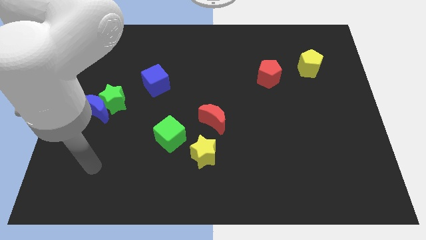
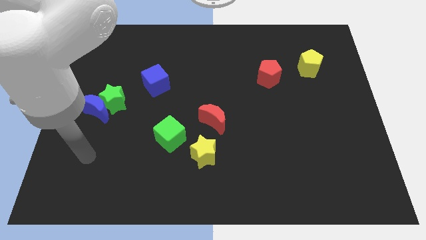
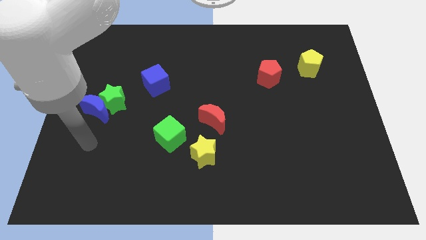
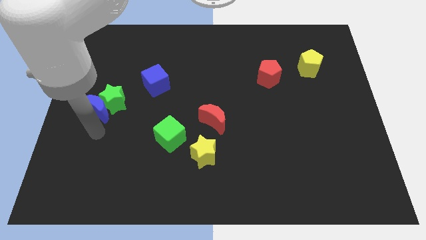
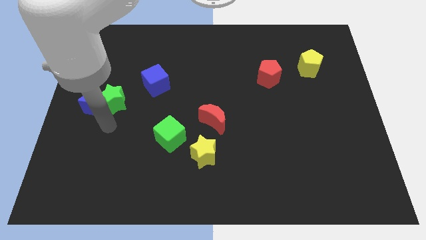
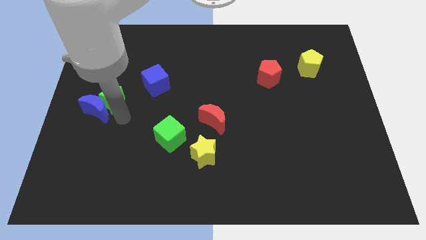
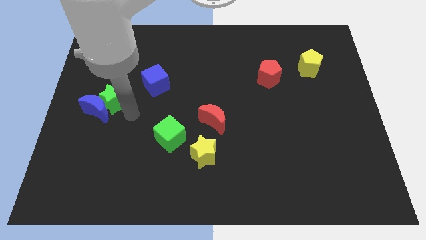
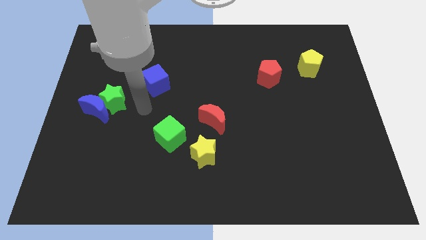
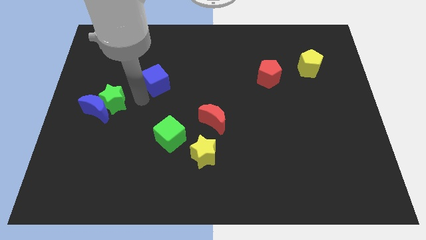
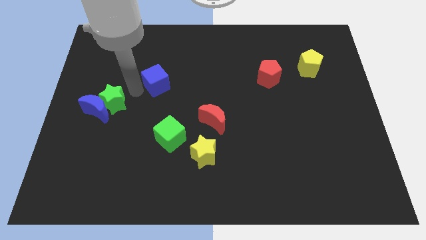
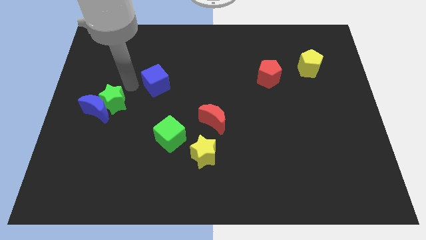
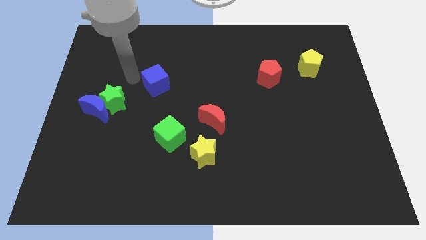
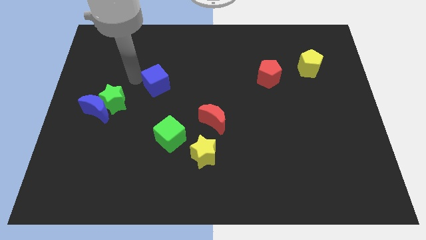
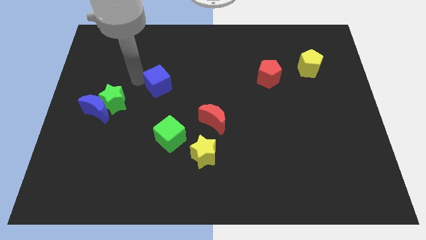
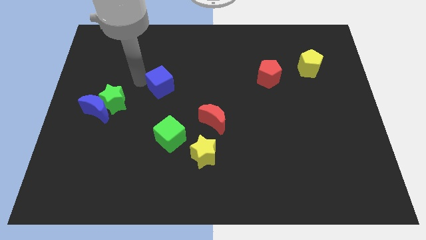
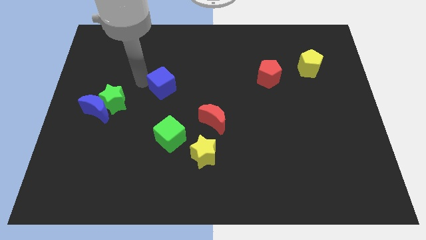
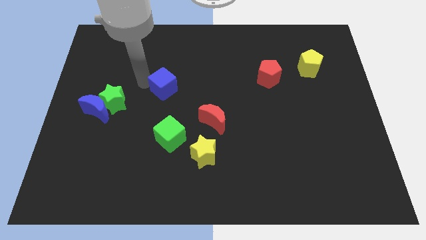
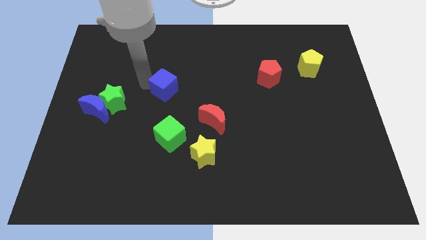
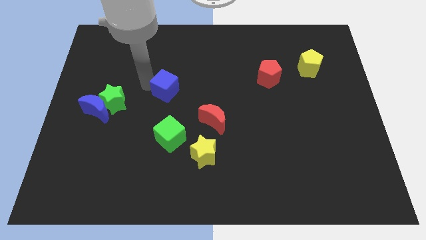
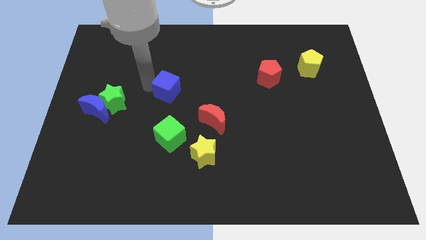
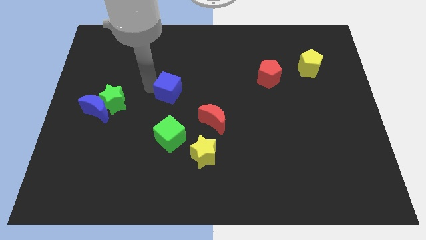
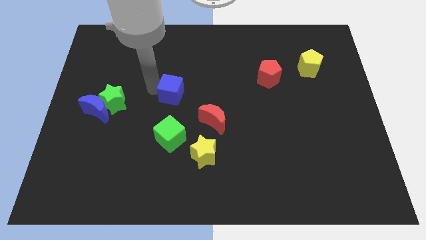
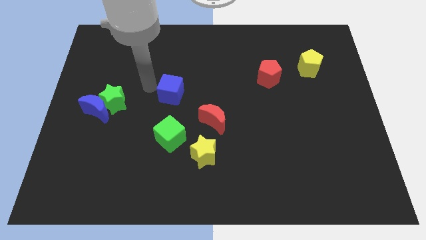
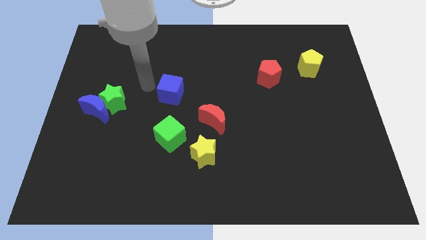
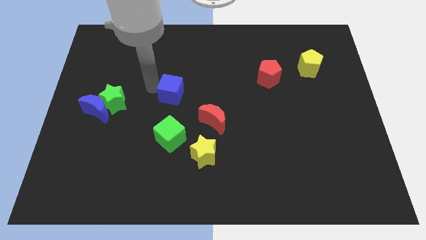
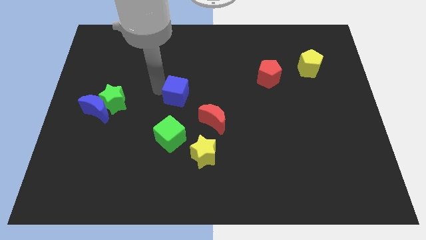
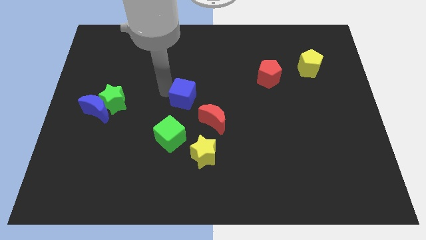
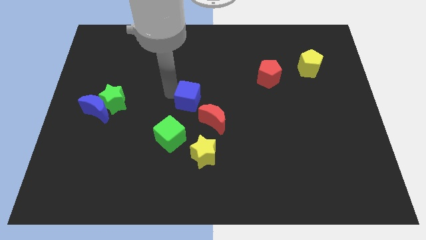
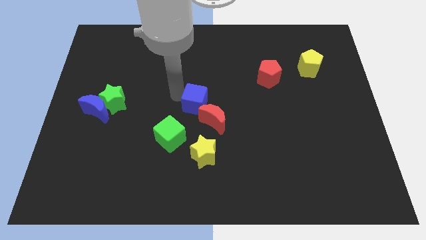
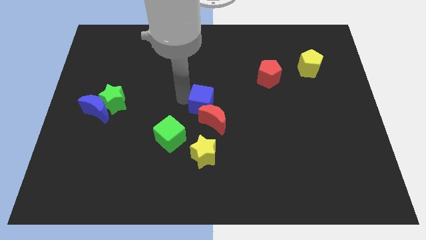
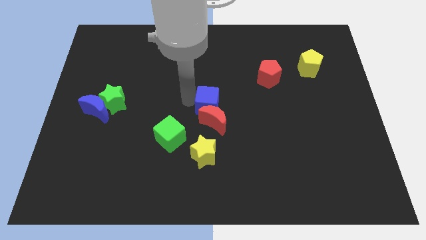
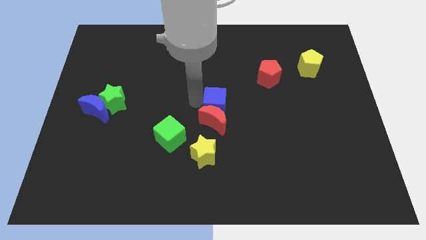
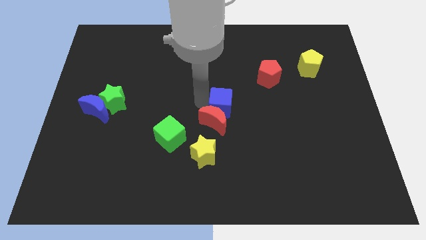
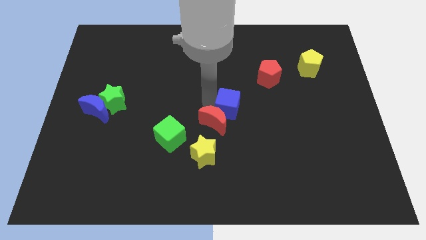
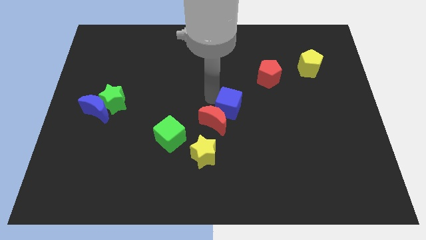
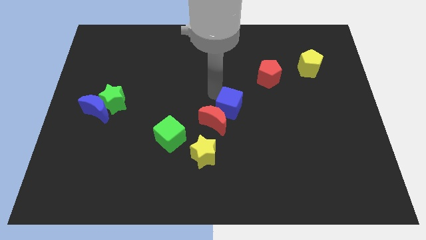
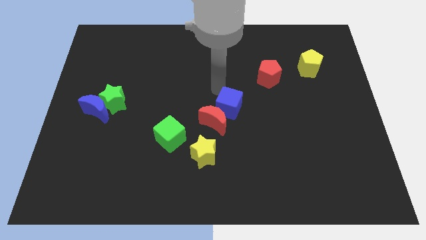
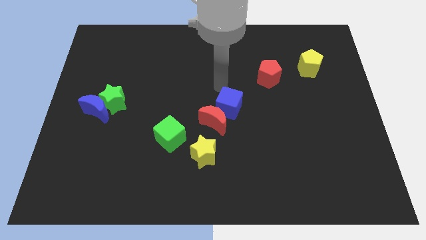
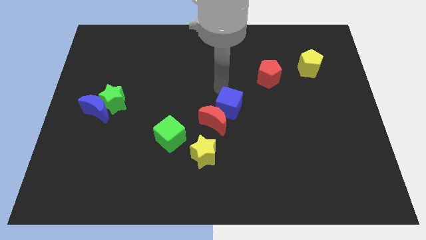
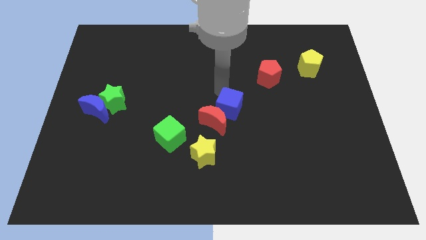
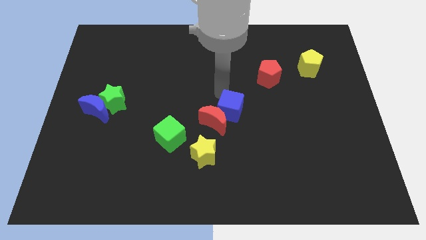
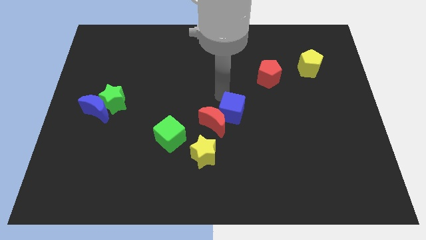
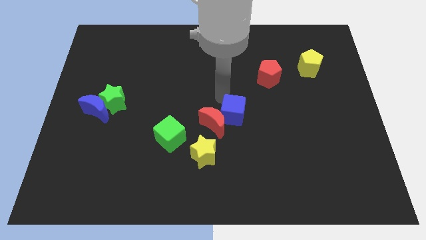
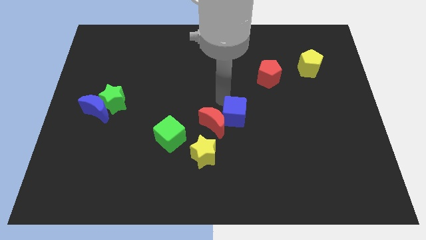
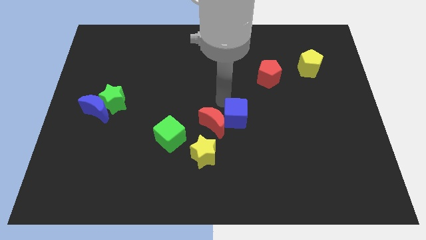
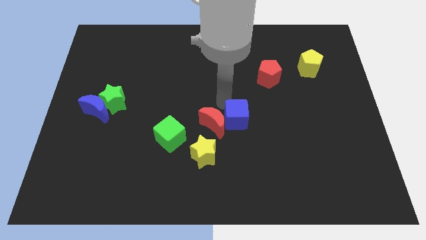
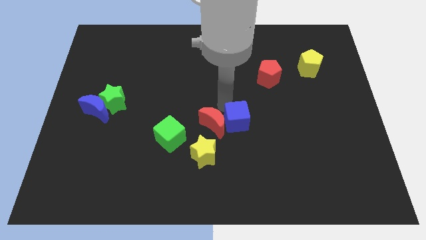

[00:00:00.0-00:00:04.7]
push the blue cube diagonally downwards and to the right

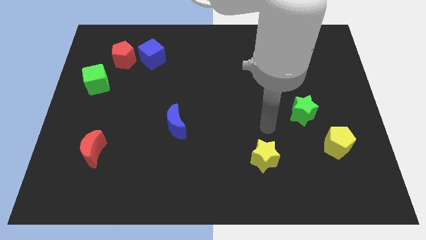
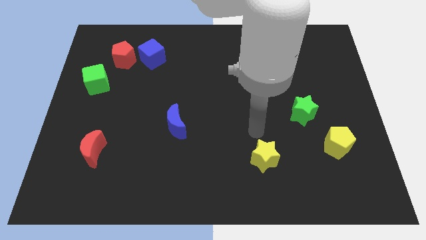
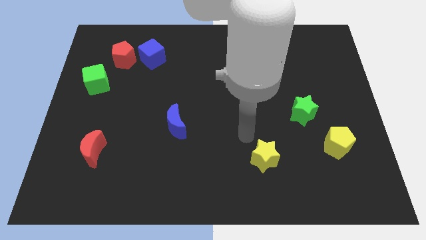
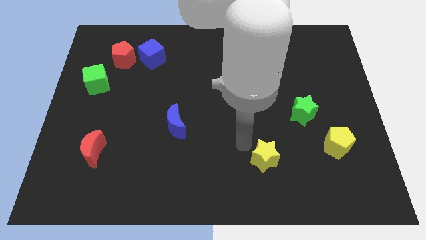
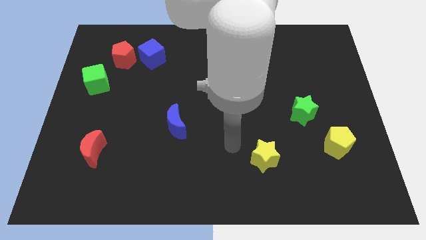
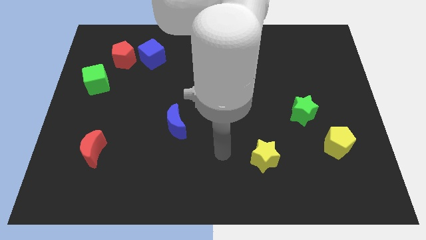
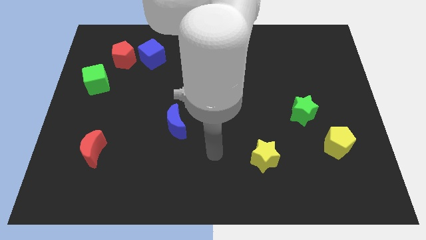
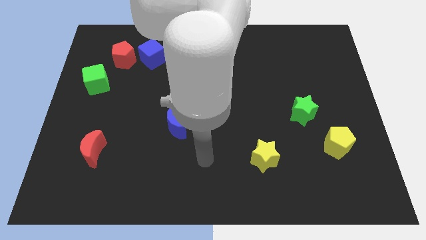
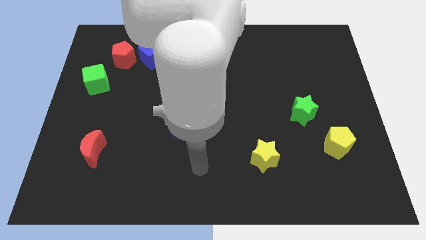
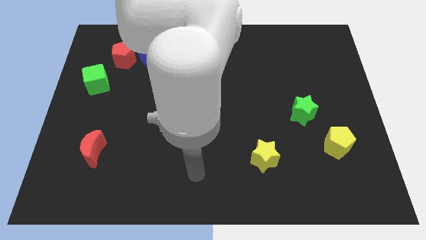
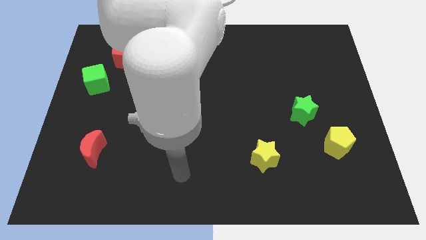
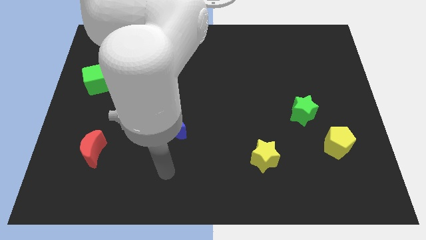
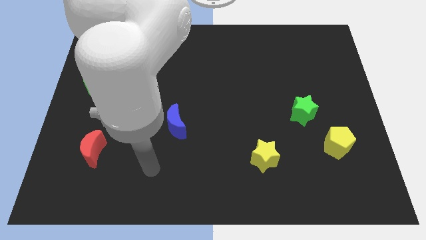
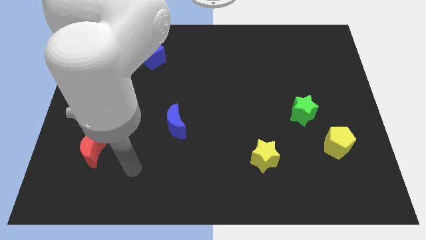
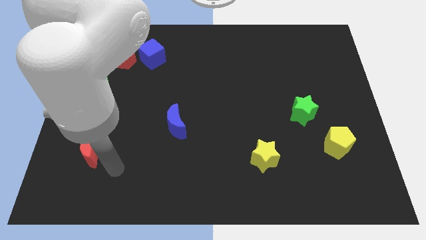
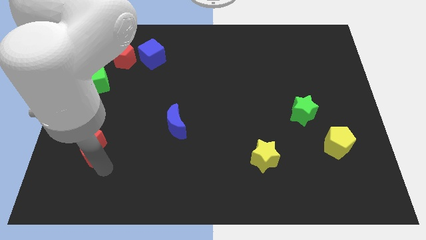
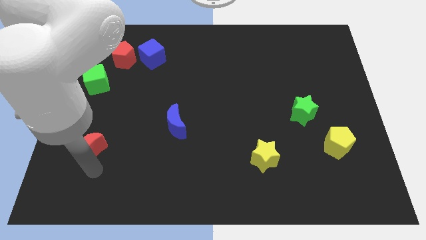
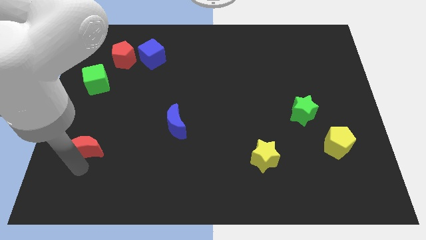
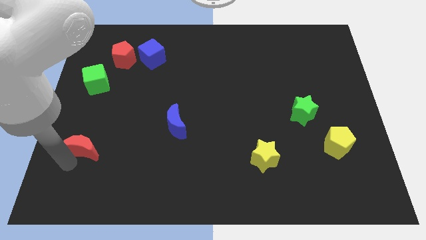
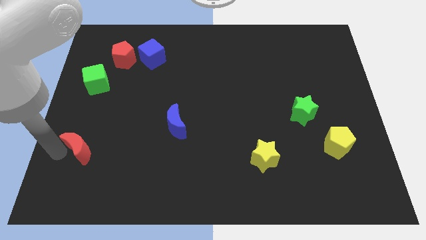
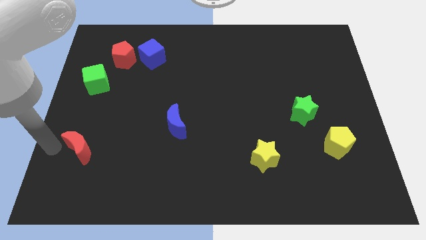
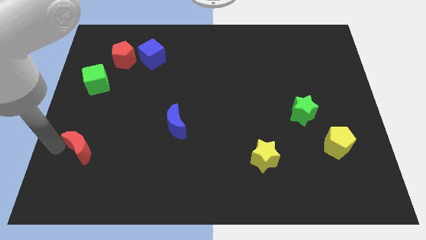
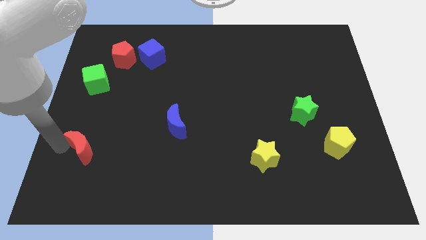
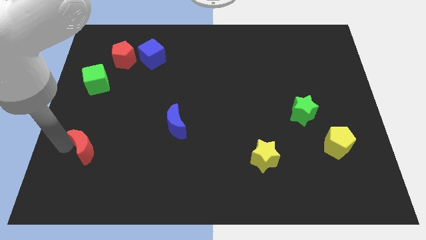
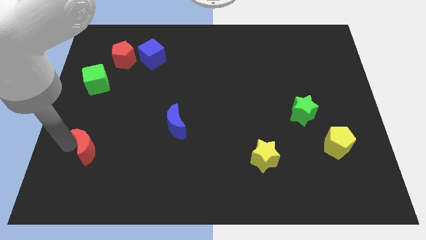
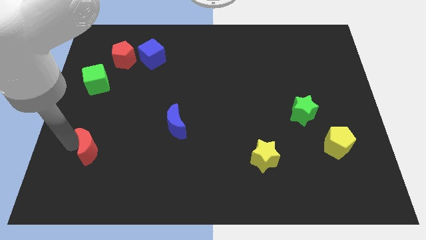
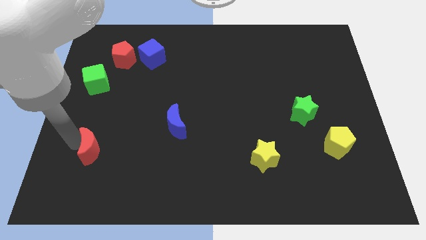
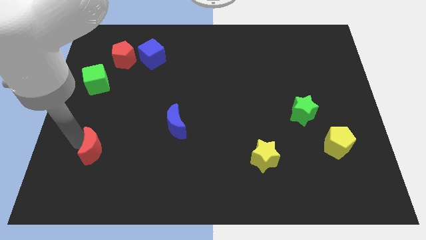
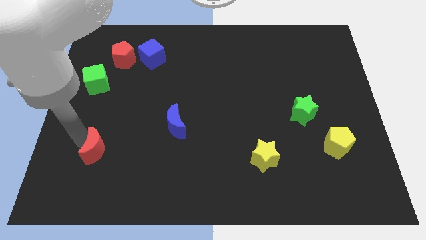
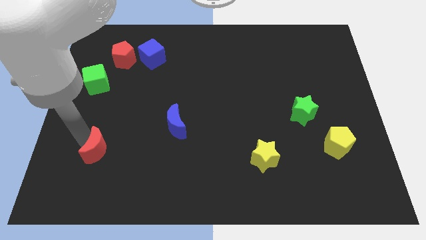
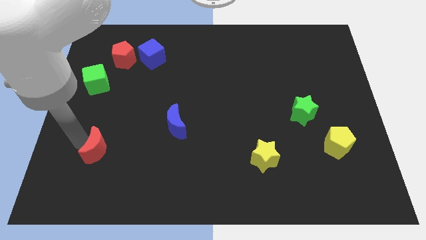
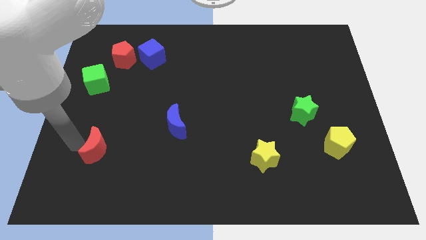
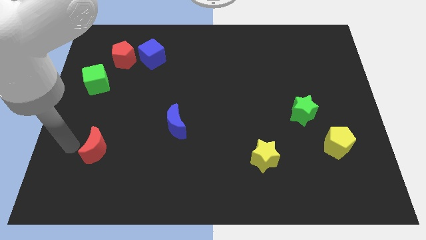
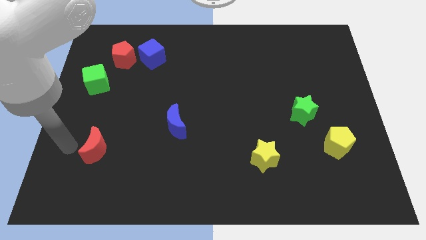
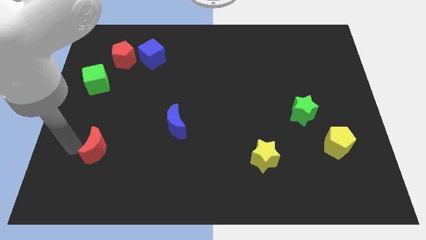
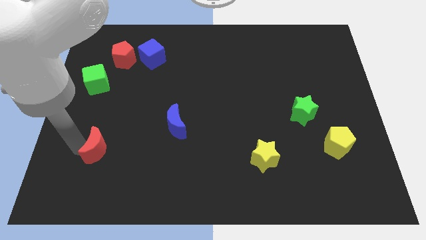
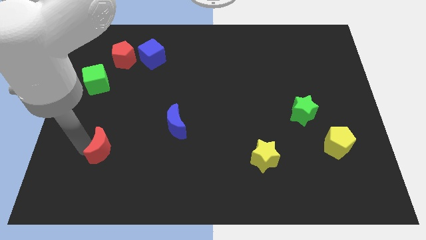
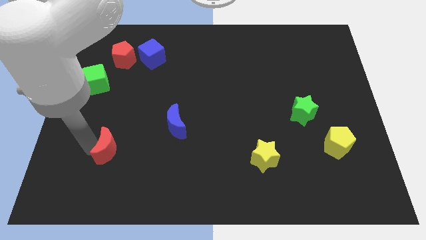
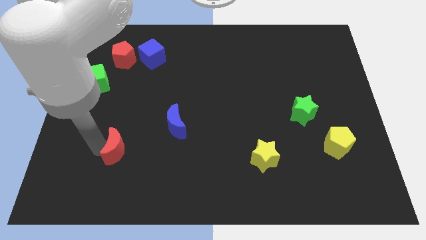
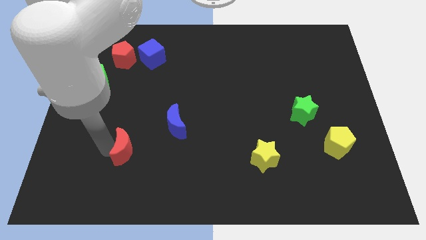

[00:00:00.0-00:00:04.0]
slightly move the red moon right
